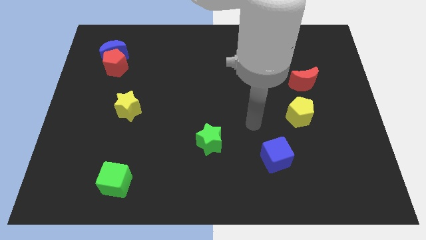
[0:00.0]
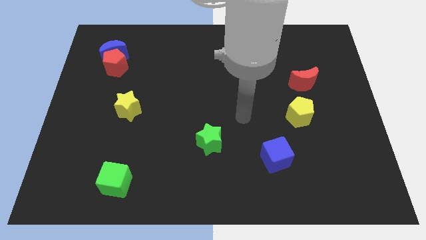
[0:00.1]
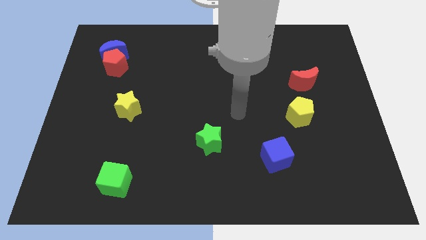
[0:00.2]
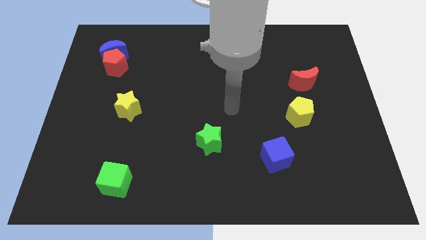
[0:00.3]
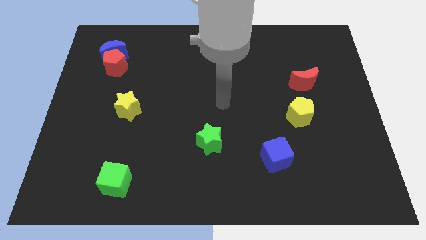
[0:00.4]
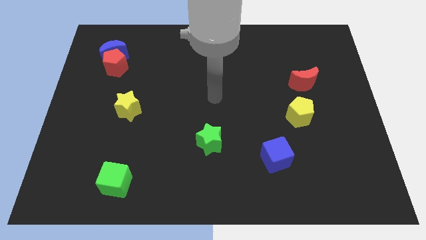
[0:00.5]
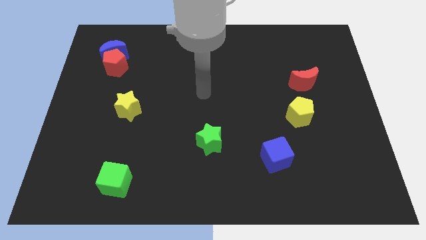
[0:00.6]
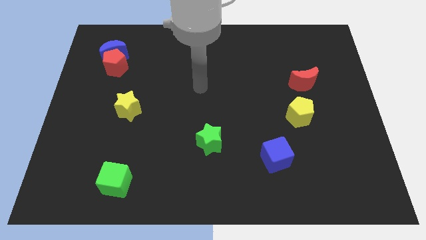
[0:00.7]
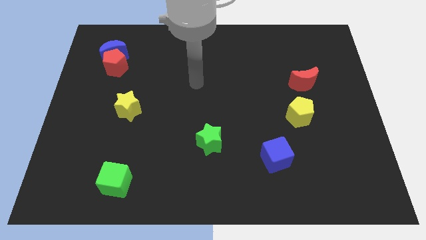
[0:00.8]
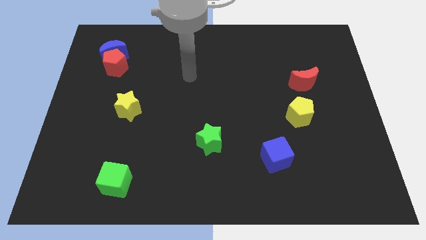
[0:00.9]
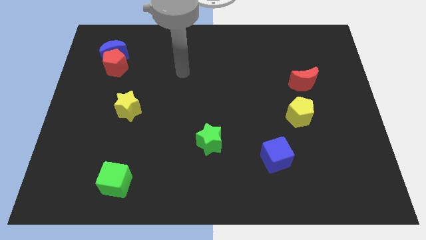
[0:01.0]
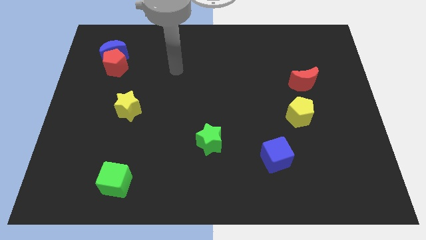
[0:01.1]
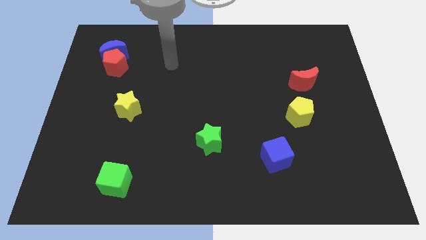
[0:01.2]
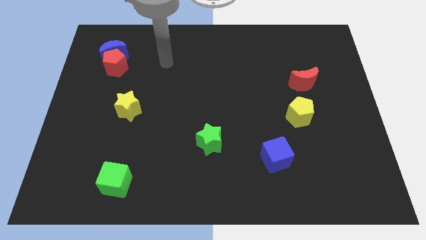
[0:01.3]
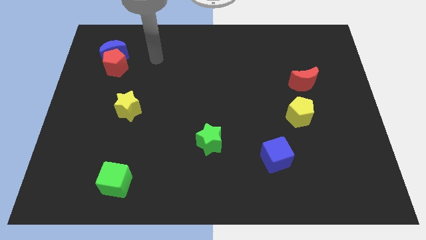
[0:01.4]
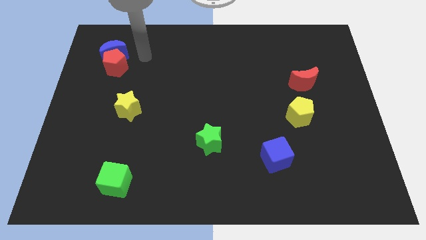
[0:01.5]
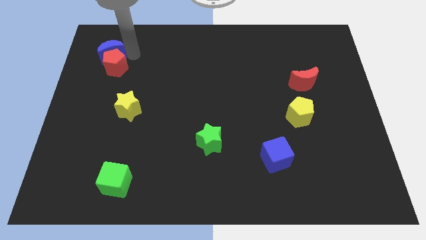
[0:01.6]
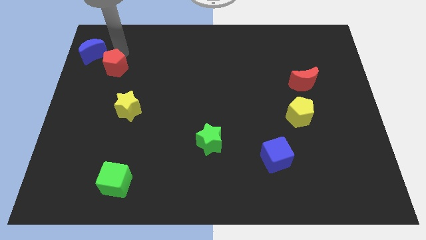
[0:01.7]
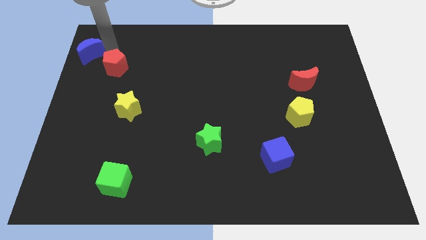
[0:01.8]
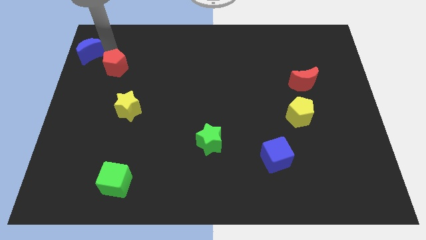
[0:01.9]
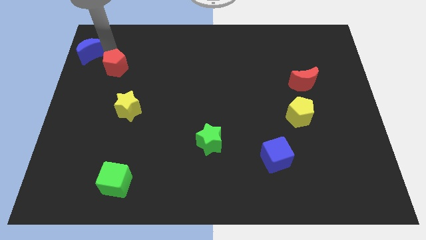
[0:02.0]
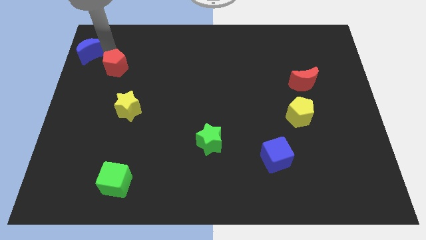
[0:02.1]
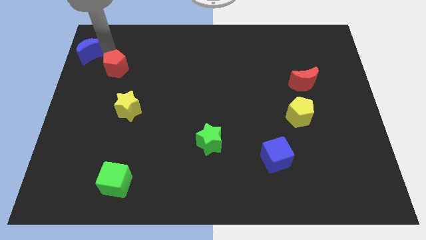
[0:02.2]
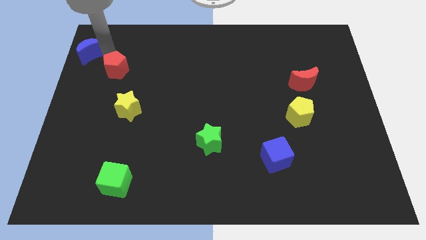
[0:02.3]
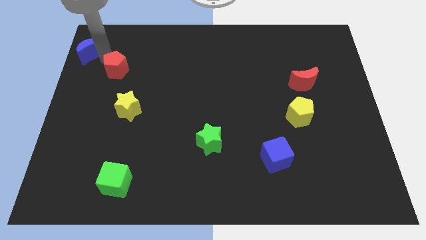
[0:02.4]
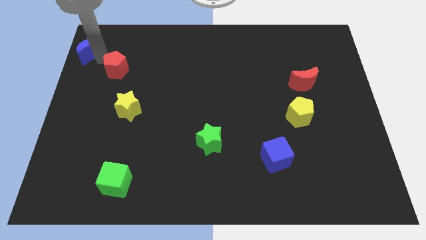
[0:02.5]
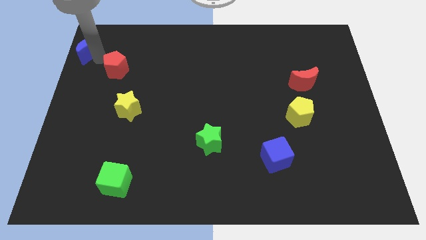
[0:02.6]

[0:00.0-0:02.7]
separate the red pentagon from the blue moon

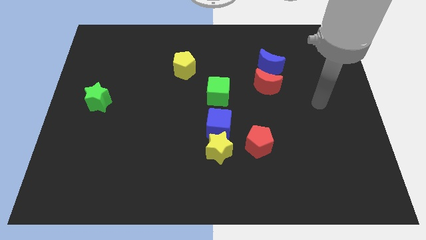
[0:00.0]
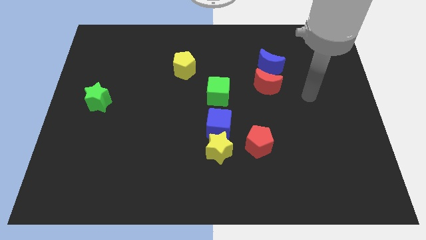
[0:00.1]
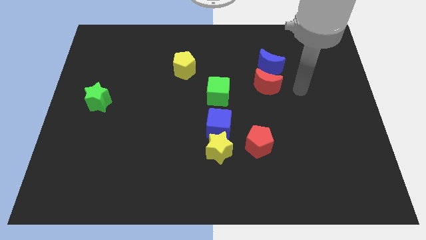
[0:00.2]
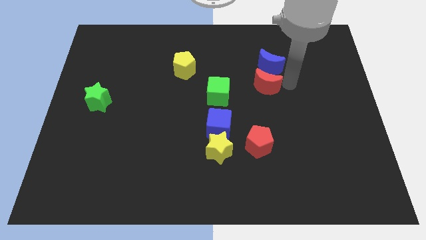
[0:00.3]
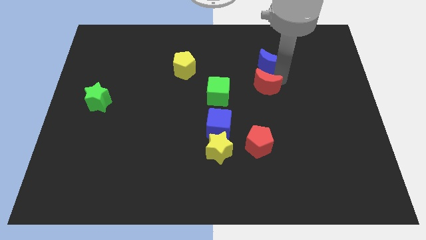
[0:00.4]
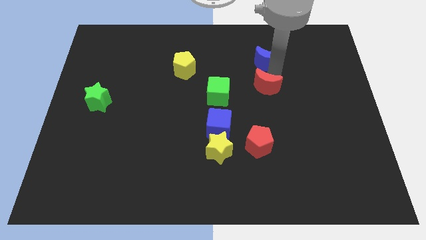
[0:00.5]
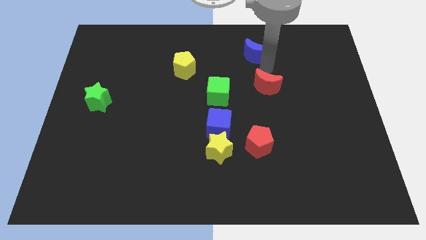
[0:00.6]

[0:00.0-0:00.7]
move the red moon away from the blue moon

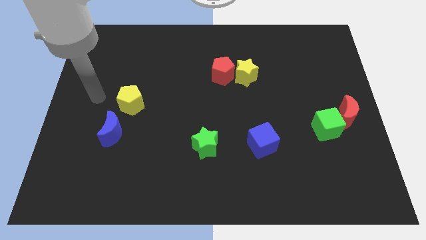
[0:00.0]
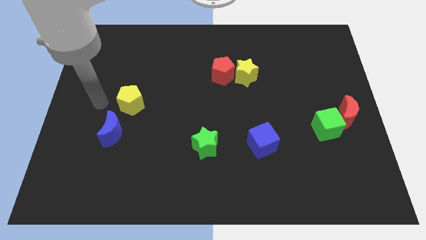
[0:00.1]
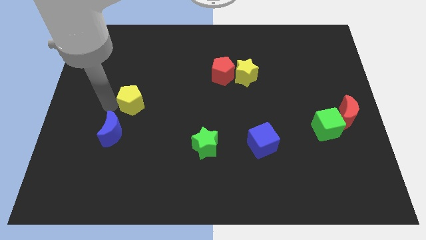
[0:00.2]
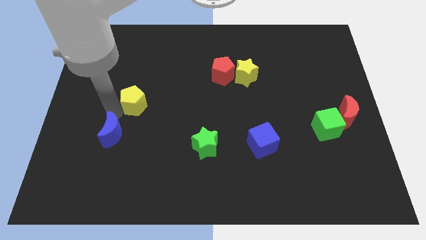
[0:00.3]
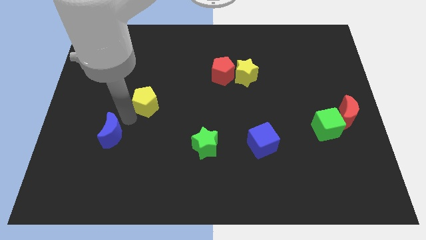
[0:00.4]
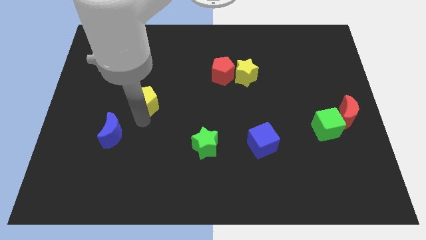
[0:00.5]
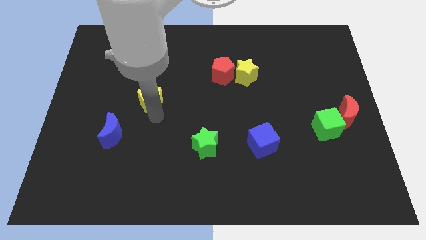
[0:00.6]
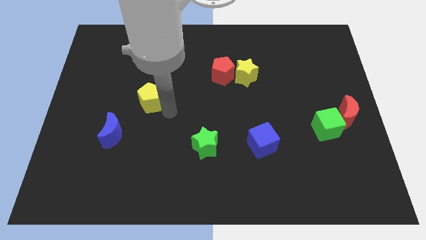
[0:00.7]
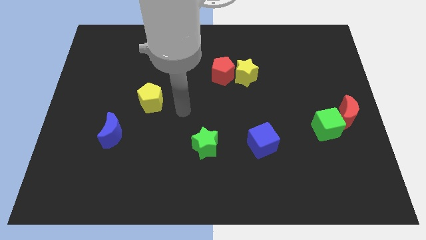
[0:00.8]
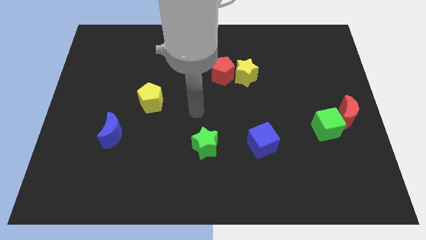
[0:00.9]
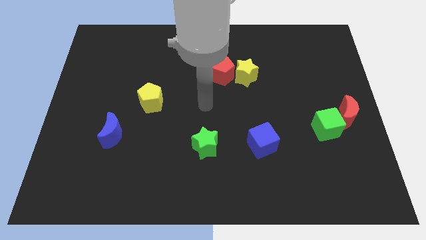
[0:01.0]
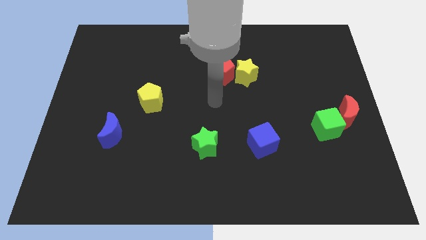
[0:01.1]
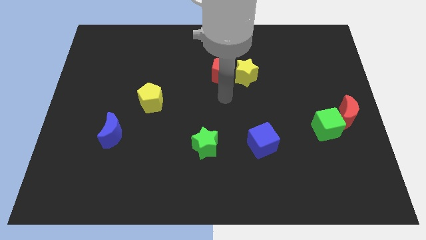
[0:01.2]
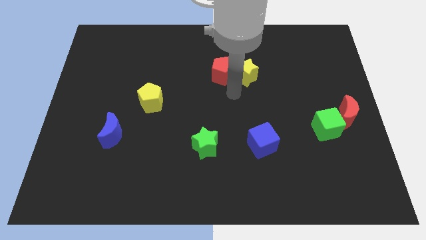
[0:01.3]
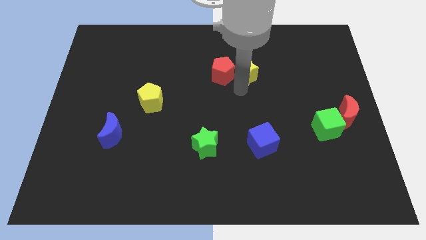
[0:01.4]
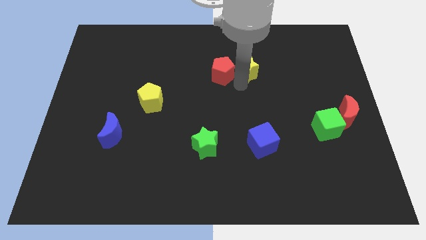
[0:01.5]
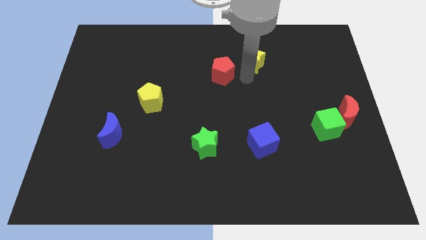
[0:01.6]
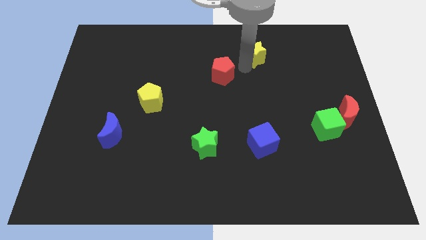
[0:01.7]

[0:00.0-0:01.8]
pull the red pentagon apart from the yellow star

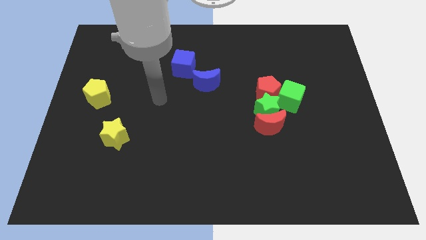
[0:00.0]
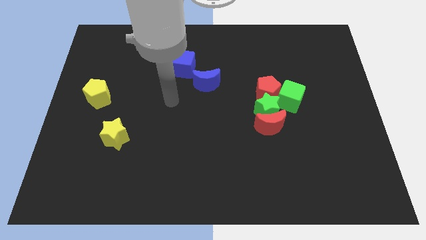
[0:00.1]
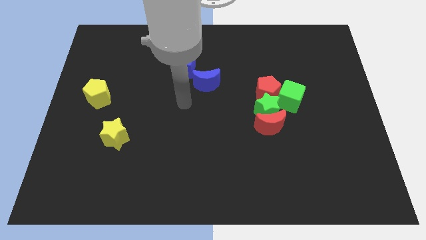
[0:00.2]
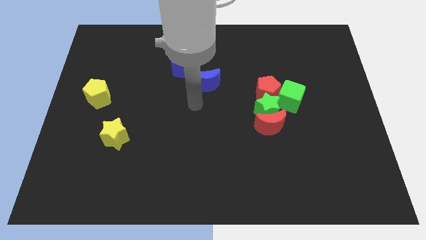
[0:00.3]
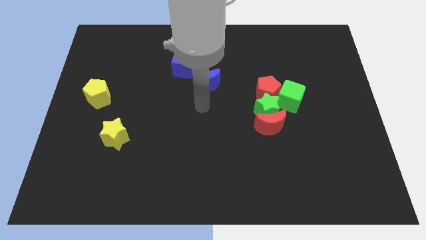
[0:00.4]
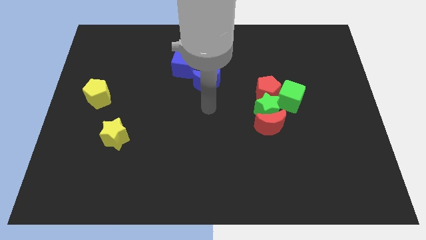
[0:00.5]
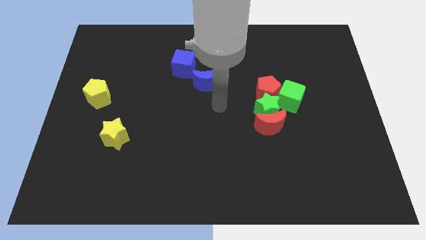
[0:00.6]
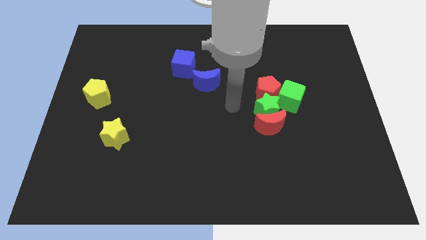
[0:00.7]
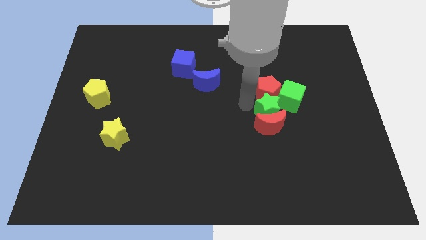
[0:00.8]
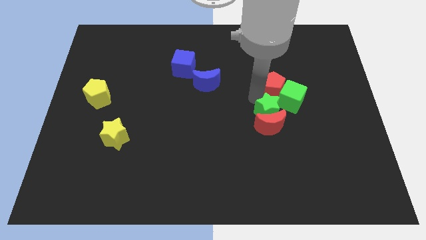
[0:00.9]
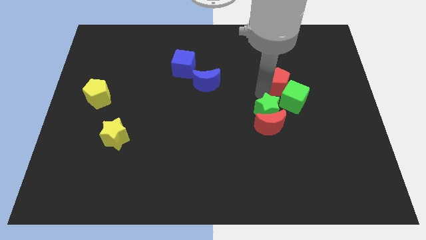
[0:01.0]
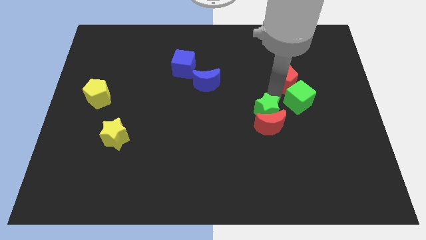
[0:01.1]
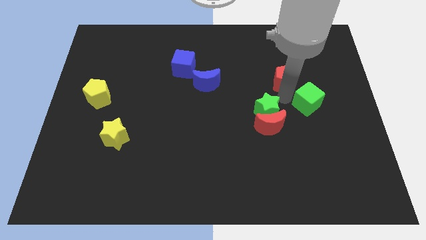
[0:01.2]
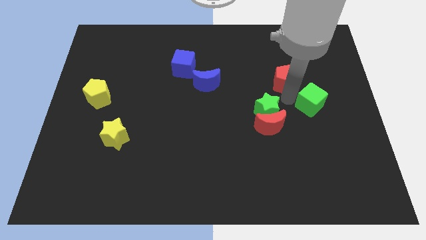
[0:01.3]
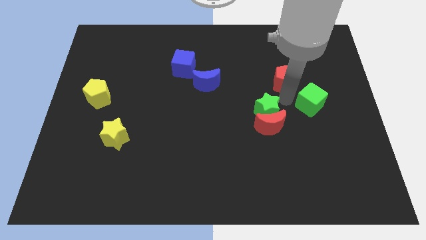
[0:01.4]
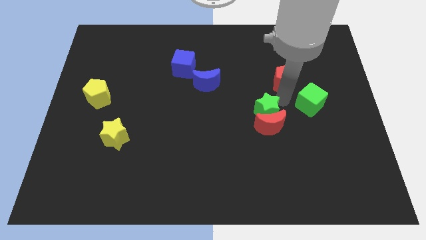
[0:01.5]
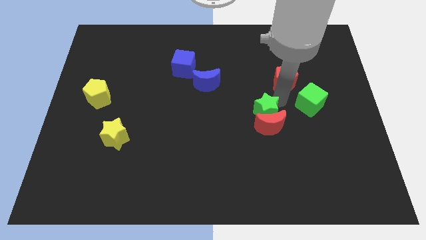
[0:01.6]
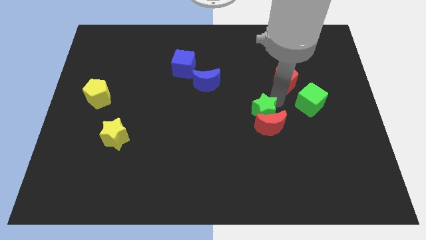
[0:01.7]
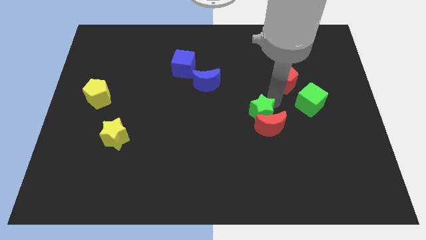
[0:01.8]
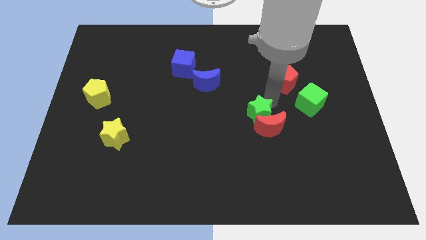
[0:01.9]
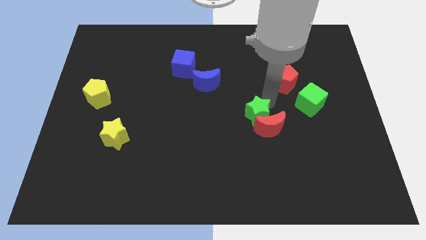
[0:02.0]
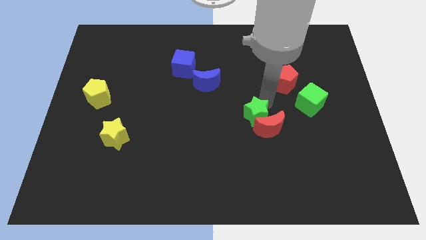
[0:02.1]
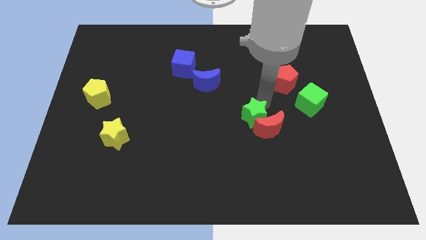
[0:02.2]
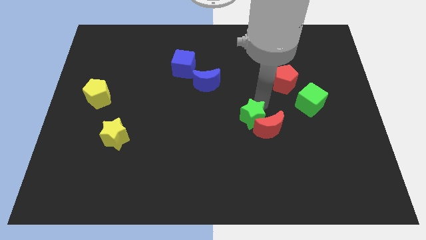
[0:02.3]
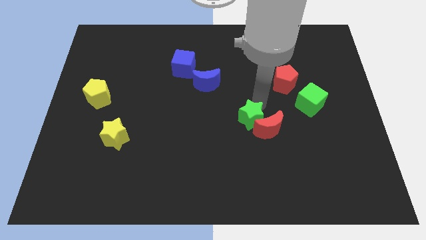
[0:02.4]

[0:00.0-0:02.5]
separate the green star from the group

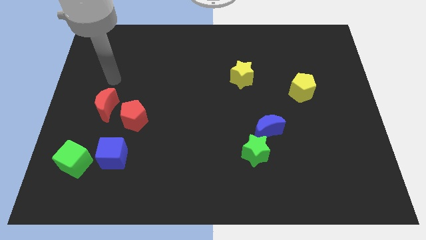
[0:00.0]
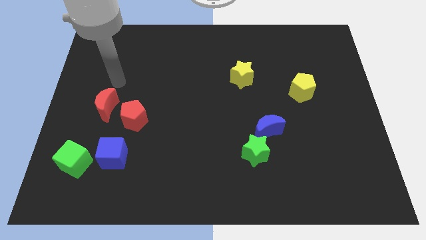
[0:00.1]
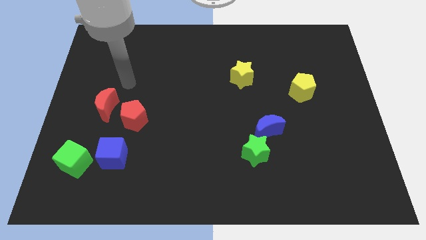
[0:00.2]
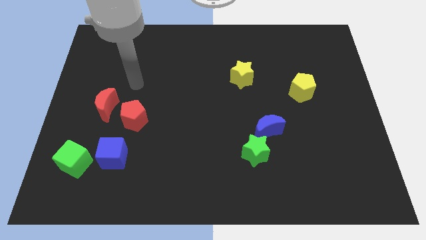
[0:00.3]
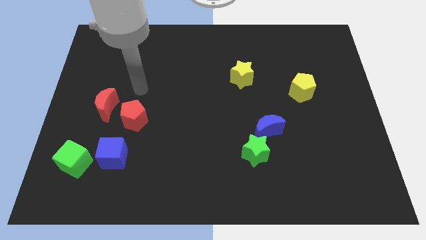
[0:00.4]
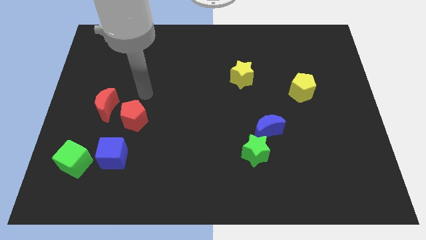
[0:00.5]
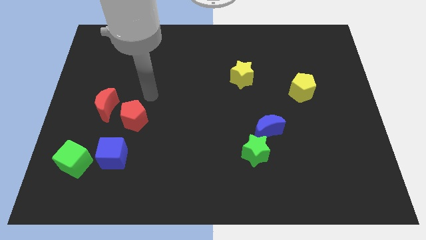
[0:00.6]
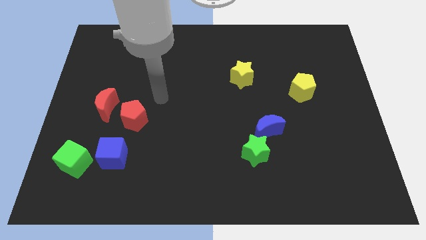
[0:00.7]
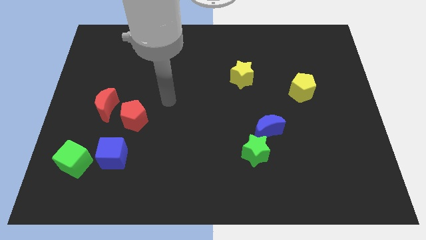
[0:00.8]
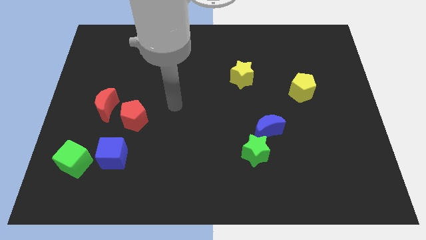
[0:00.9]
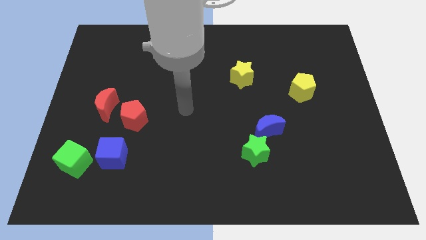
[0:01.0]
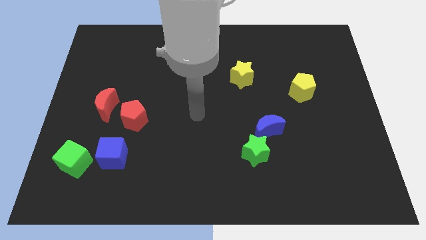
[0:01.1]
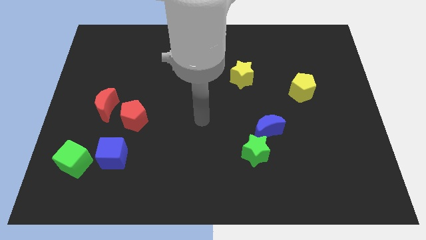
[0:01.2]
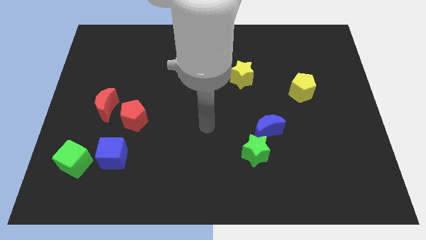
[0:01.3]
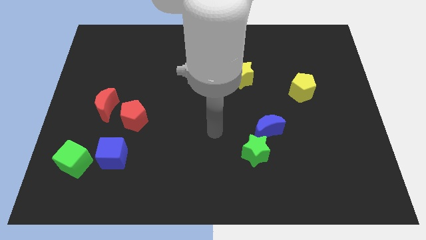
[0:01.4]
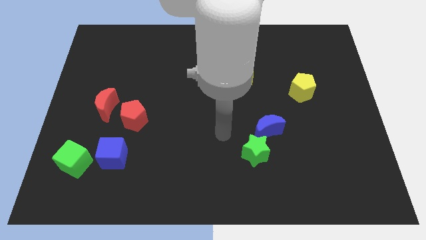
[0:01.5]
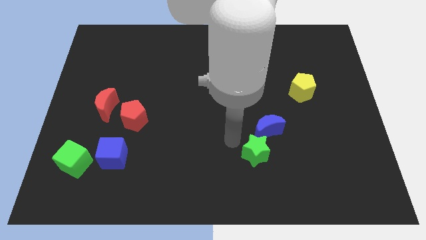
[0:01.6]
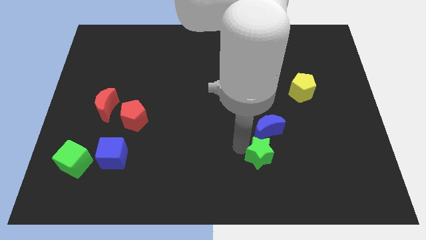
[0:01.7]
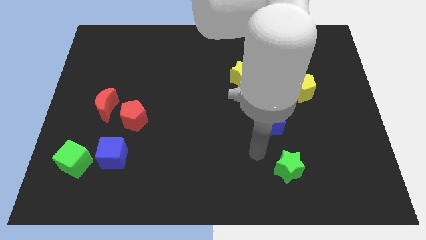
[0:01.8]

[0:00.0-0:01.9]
pull the blue moon apart from the green star
